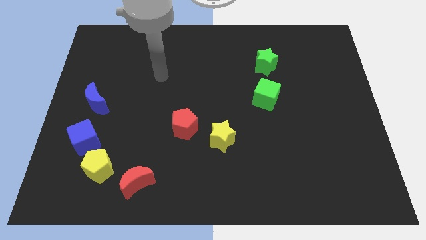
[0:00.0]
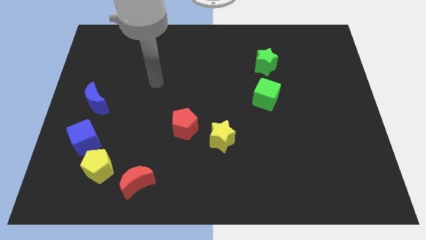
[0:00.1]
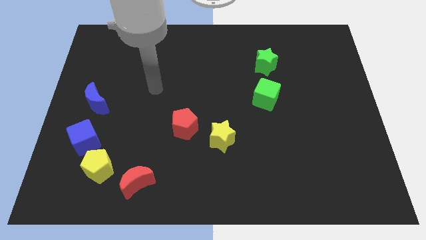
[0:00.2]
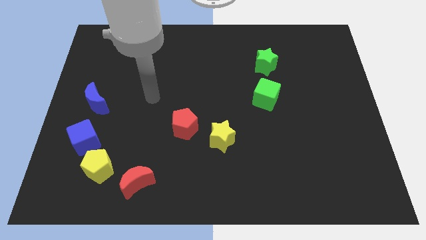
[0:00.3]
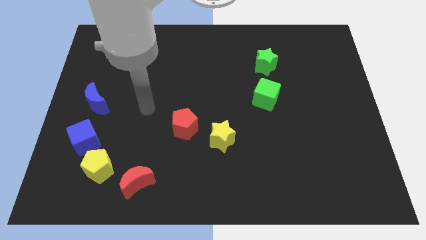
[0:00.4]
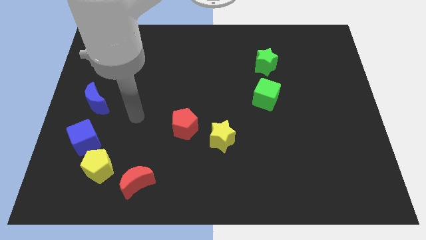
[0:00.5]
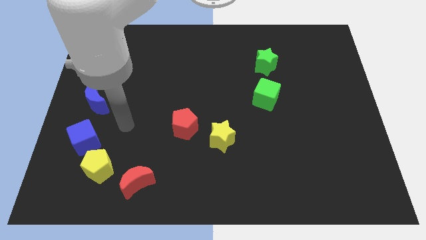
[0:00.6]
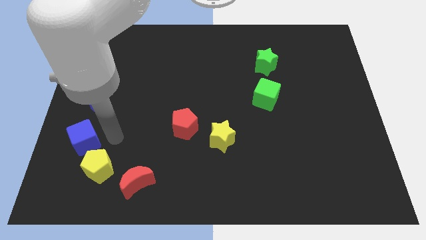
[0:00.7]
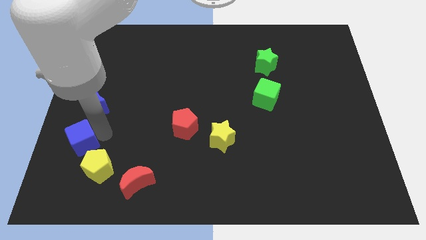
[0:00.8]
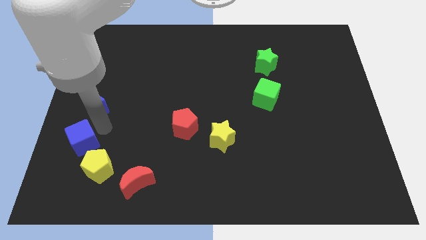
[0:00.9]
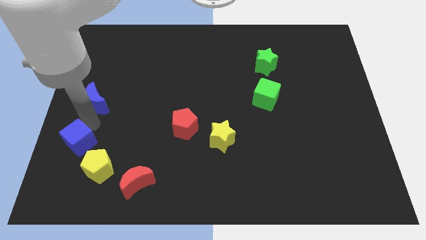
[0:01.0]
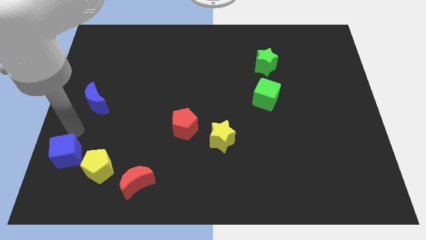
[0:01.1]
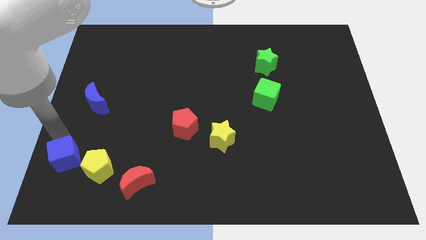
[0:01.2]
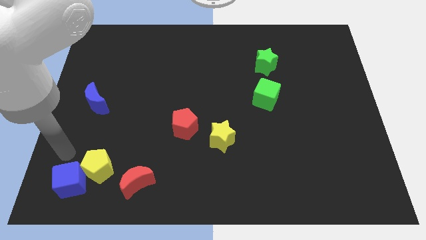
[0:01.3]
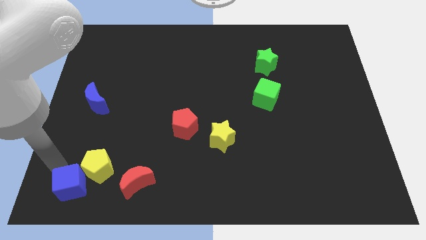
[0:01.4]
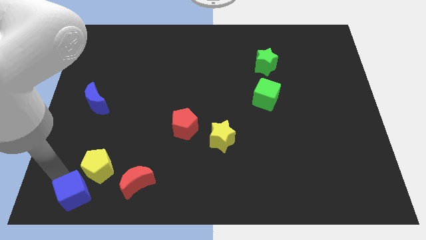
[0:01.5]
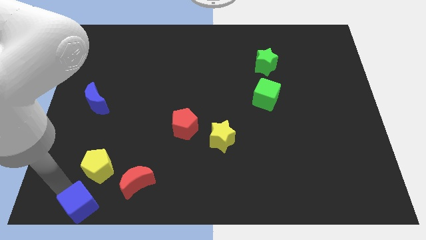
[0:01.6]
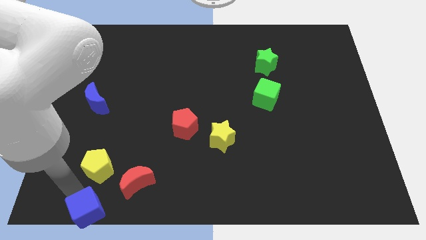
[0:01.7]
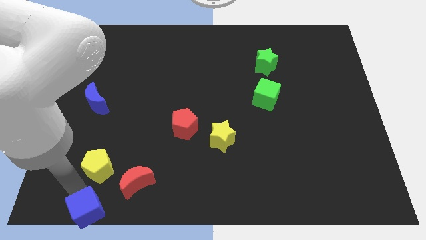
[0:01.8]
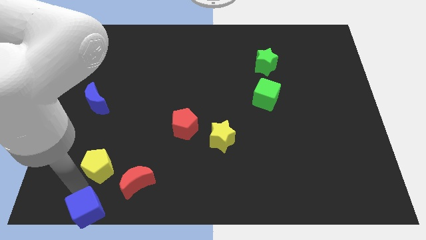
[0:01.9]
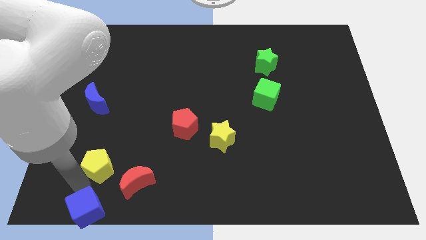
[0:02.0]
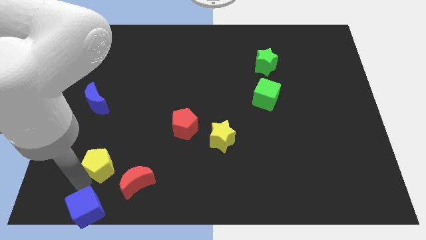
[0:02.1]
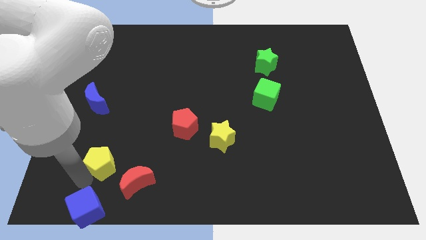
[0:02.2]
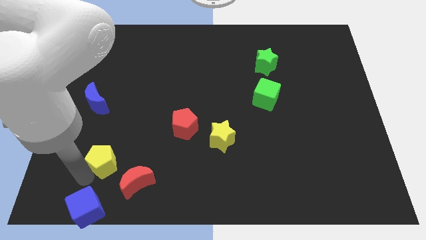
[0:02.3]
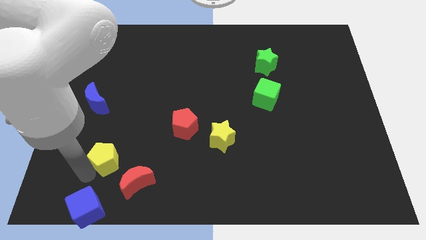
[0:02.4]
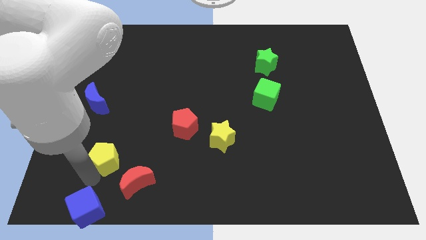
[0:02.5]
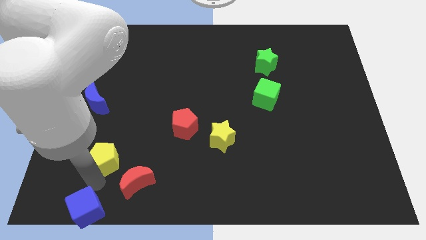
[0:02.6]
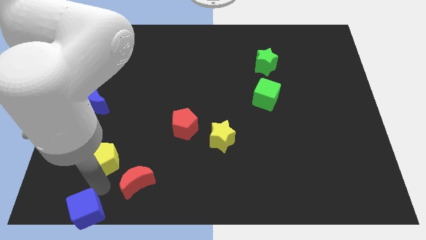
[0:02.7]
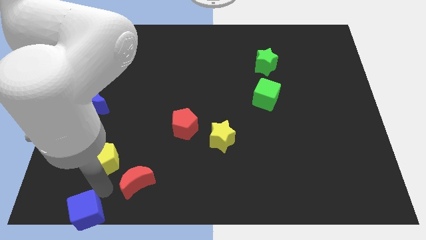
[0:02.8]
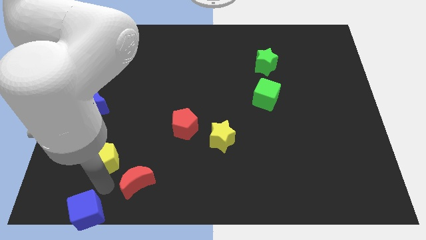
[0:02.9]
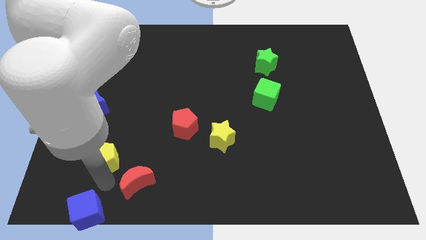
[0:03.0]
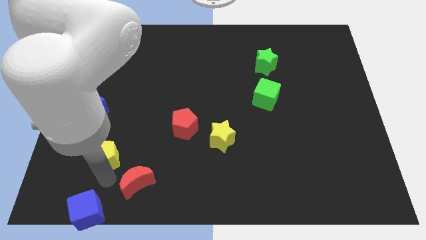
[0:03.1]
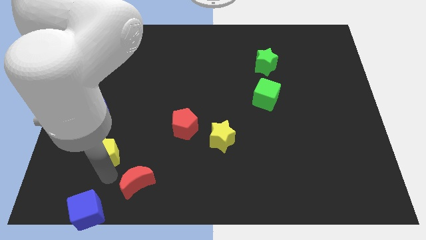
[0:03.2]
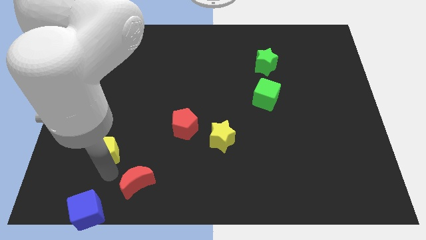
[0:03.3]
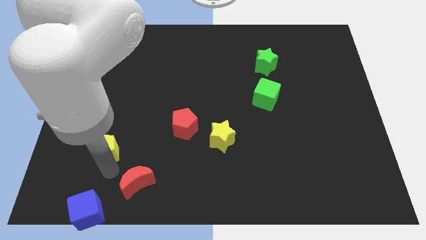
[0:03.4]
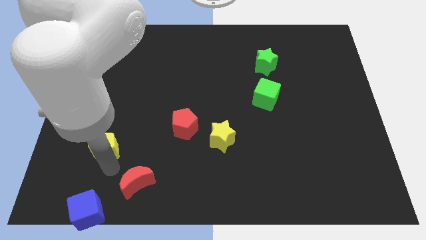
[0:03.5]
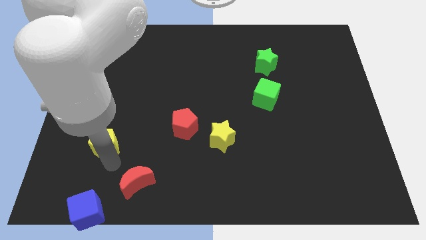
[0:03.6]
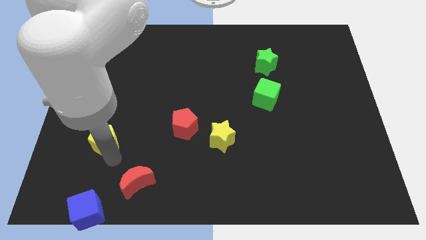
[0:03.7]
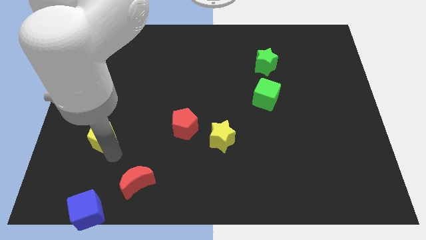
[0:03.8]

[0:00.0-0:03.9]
slightly slide the yellow pentagon upwards

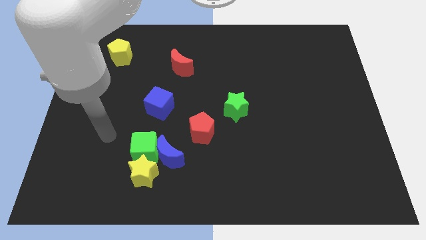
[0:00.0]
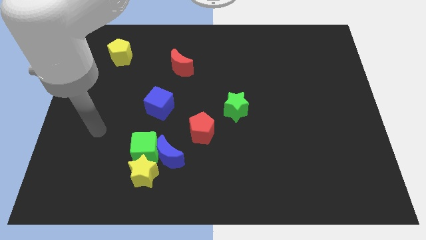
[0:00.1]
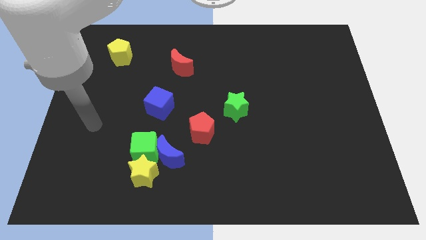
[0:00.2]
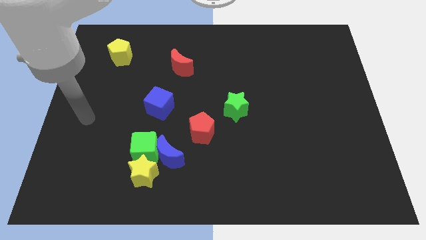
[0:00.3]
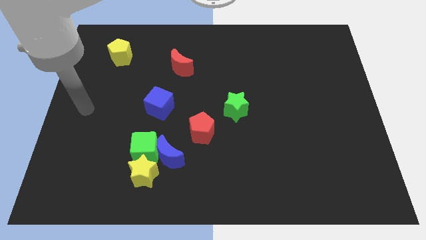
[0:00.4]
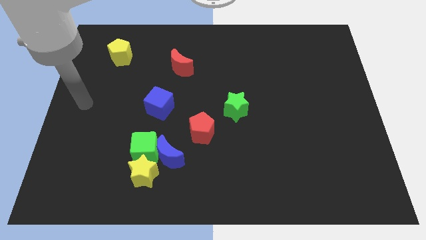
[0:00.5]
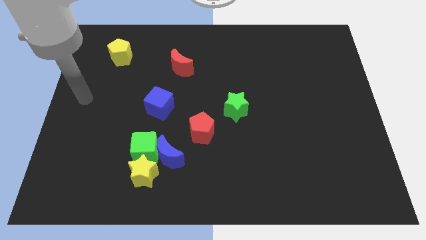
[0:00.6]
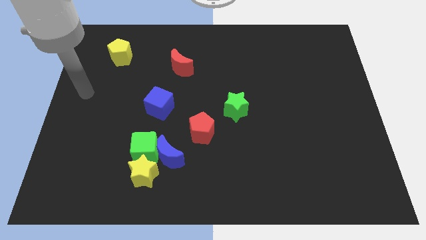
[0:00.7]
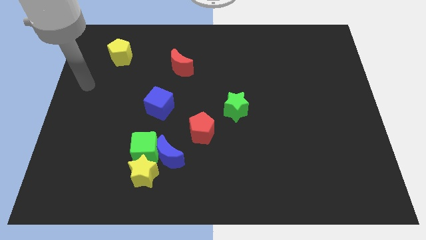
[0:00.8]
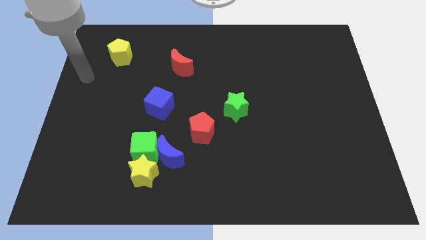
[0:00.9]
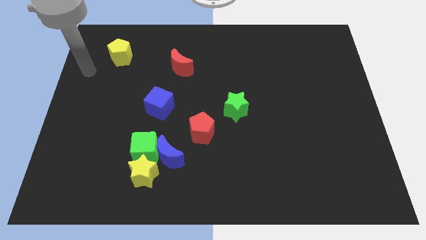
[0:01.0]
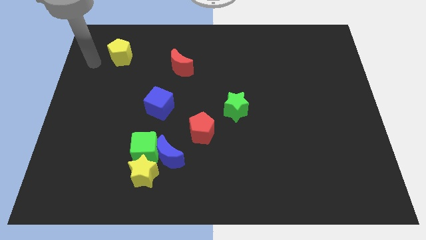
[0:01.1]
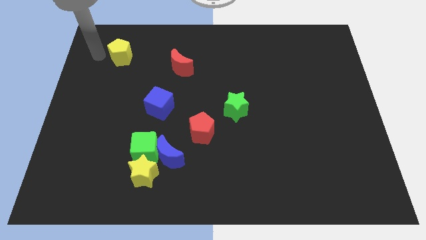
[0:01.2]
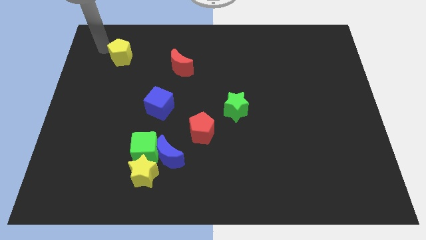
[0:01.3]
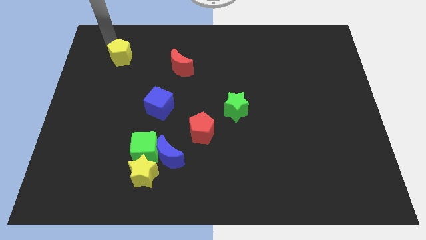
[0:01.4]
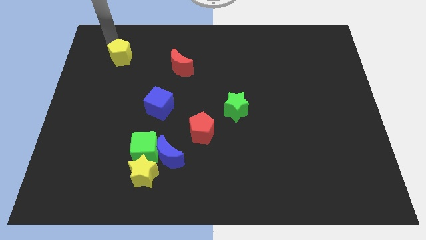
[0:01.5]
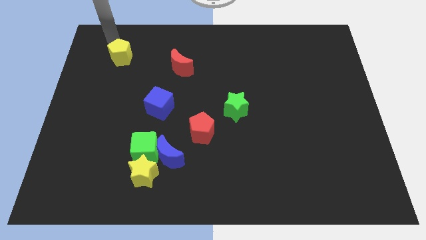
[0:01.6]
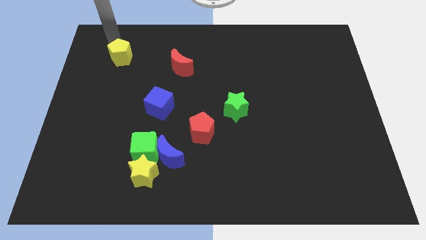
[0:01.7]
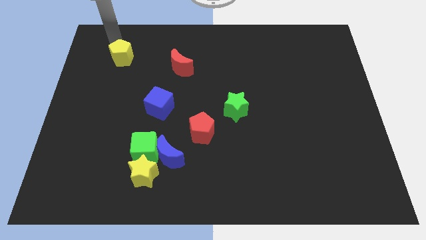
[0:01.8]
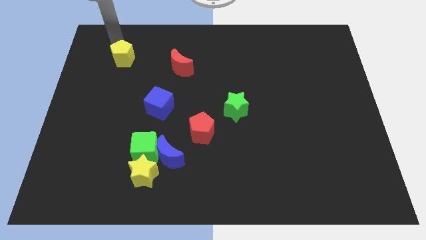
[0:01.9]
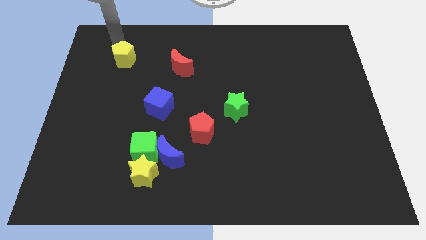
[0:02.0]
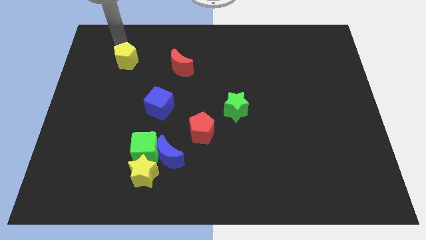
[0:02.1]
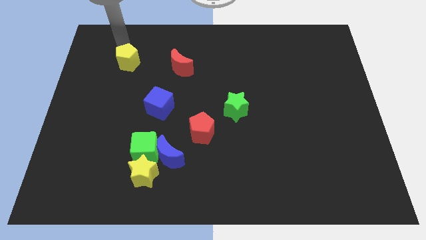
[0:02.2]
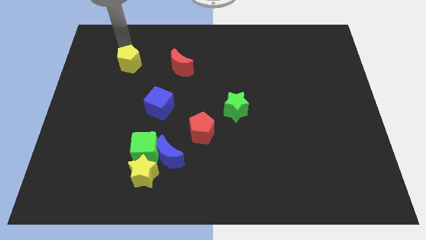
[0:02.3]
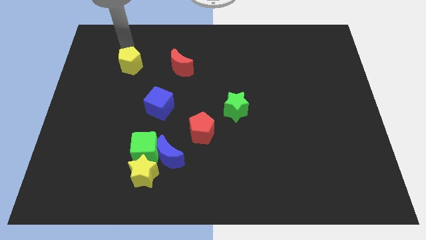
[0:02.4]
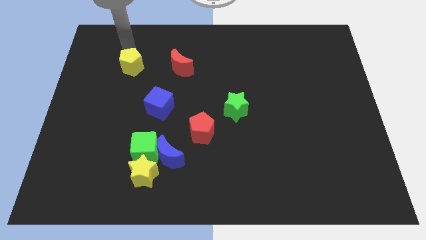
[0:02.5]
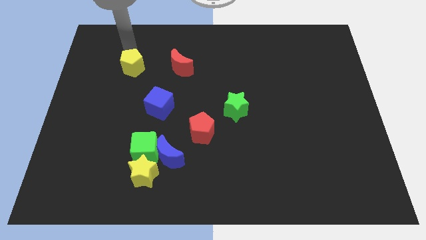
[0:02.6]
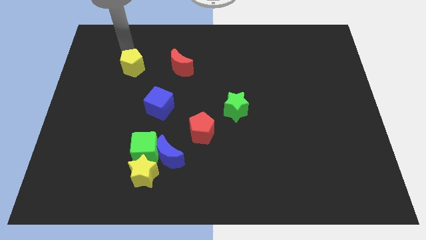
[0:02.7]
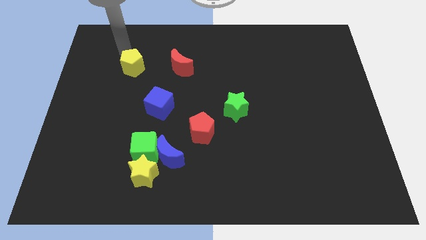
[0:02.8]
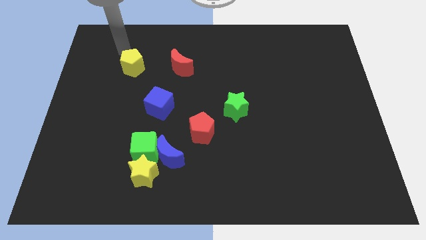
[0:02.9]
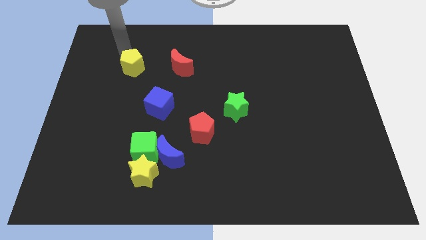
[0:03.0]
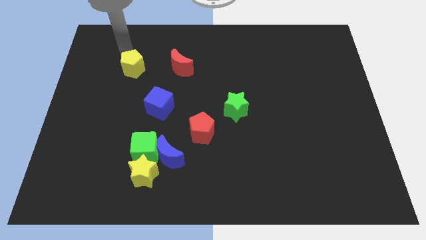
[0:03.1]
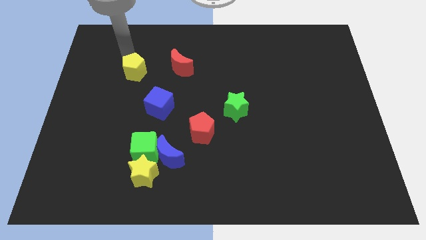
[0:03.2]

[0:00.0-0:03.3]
push the yellow pentagon slightly down and then right

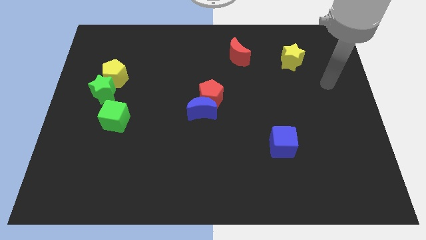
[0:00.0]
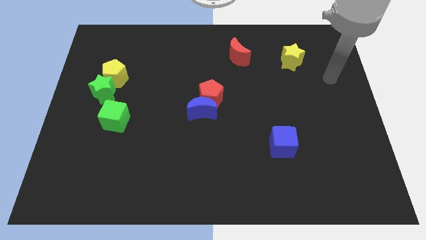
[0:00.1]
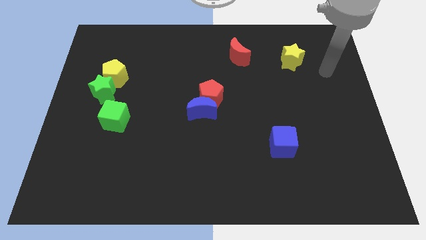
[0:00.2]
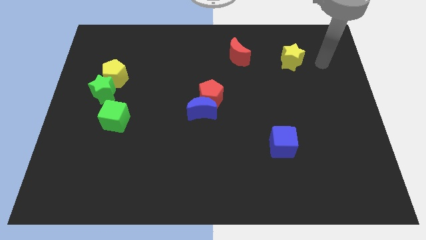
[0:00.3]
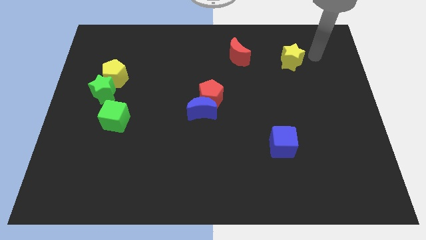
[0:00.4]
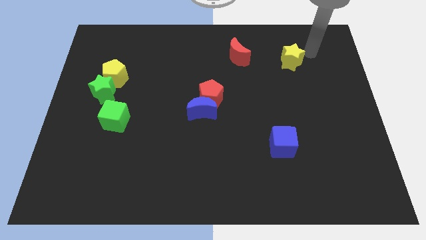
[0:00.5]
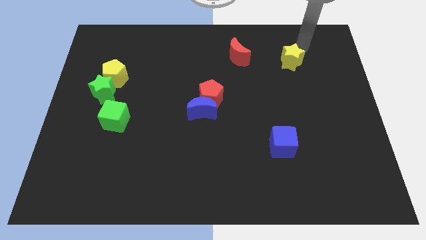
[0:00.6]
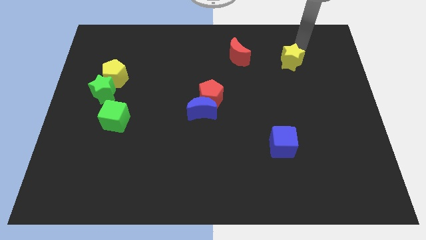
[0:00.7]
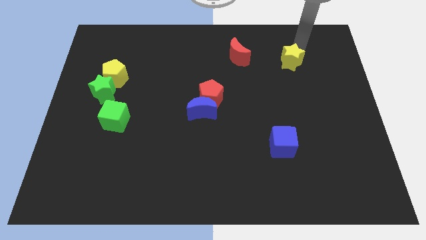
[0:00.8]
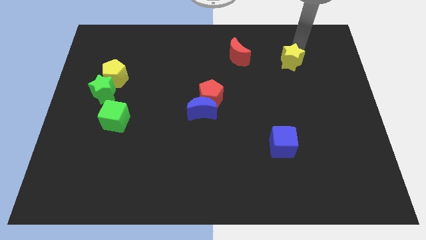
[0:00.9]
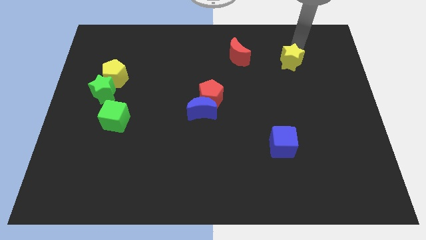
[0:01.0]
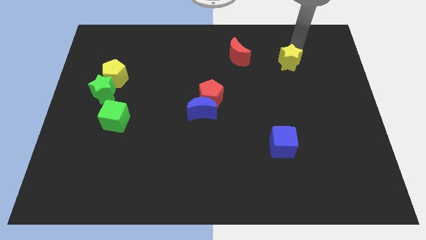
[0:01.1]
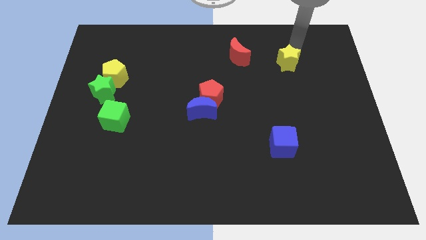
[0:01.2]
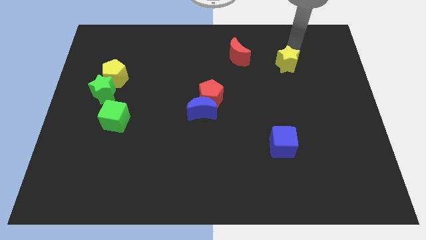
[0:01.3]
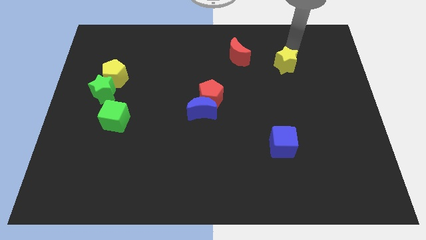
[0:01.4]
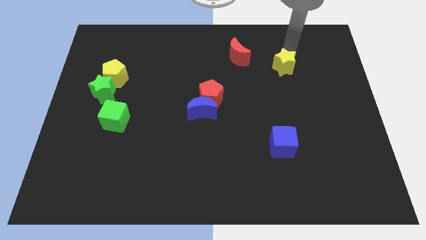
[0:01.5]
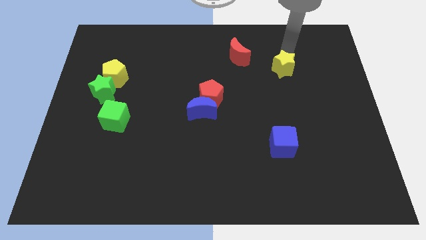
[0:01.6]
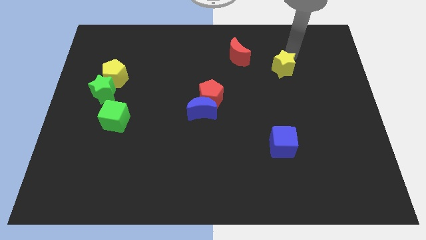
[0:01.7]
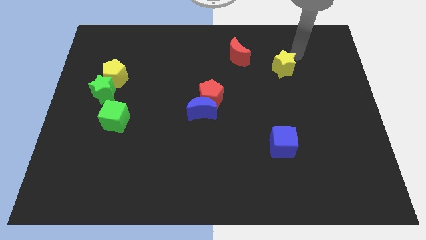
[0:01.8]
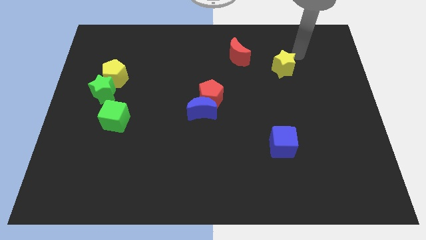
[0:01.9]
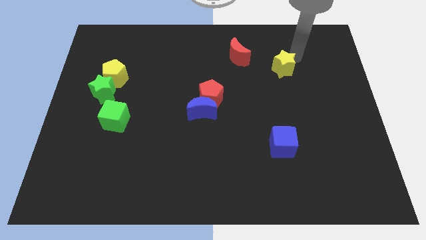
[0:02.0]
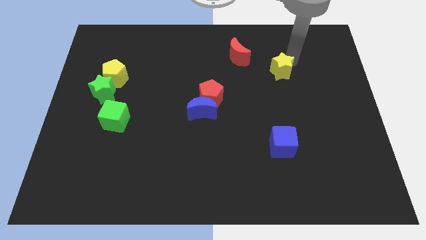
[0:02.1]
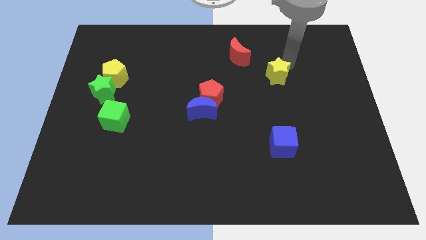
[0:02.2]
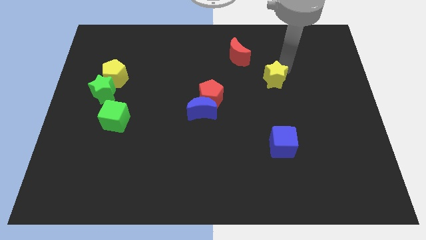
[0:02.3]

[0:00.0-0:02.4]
move the yellow star down and left a little
